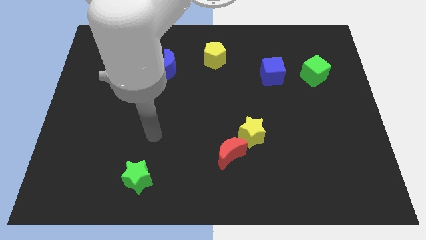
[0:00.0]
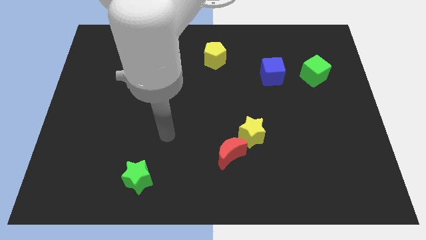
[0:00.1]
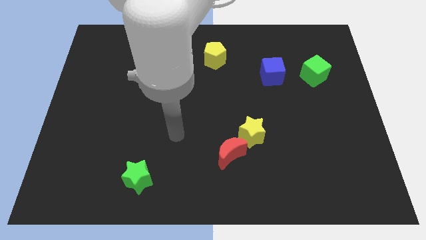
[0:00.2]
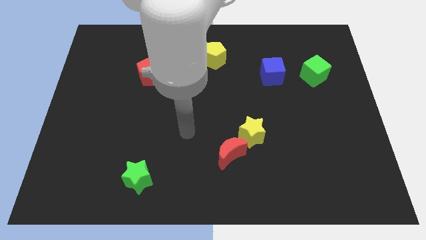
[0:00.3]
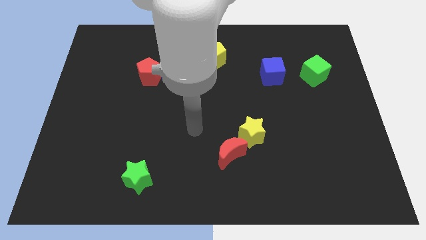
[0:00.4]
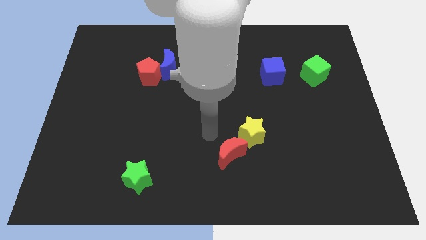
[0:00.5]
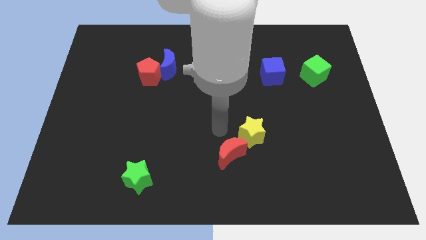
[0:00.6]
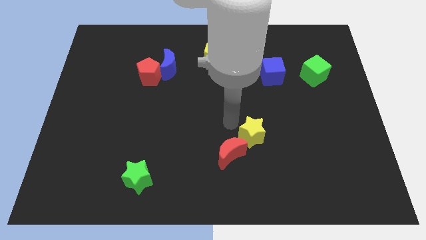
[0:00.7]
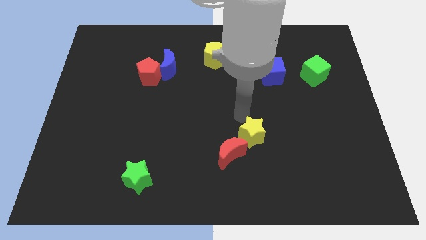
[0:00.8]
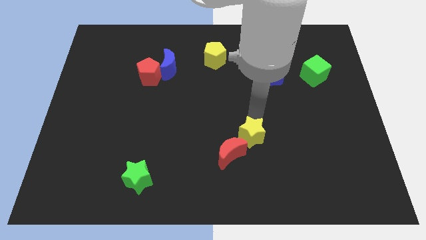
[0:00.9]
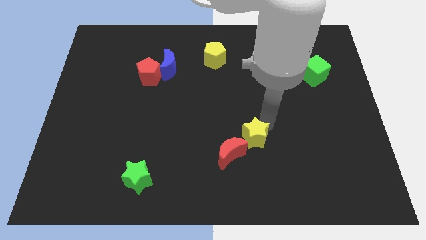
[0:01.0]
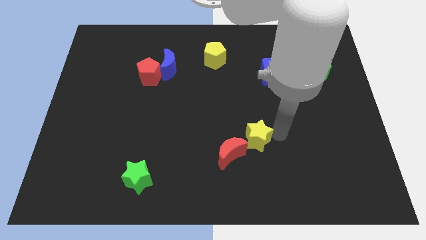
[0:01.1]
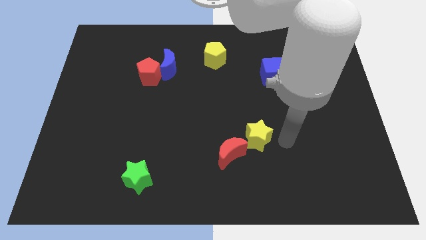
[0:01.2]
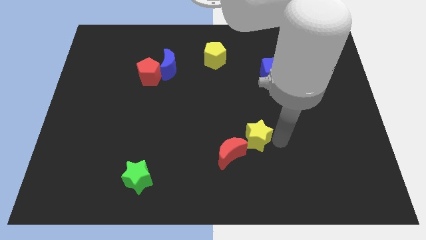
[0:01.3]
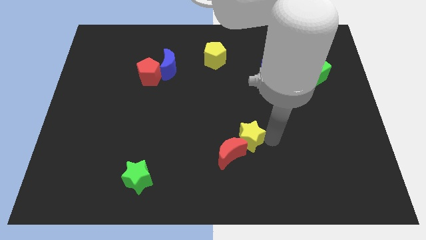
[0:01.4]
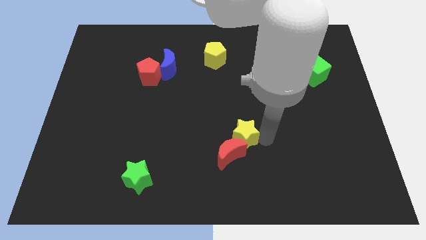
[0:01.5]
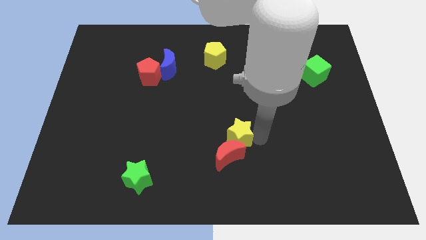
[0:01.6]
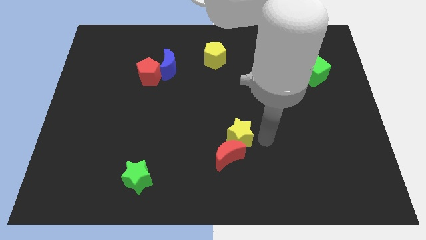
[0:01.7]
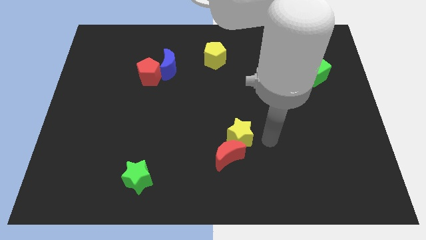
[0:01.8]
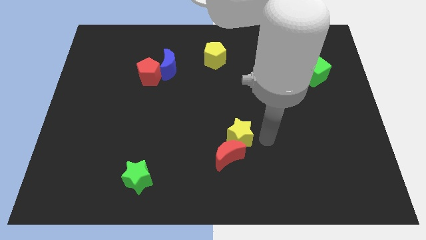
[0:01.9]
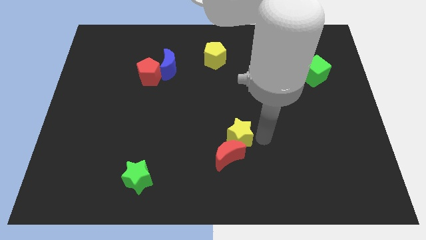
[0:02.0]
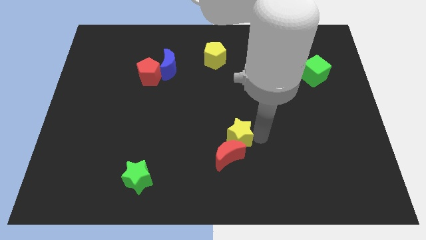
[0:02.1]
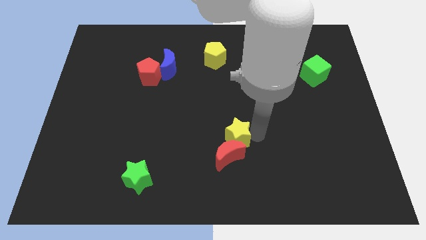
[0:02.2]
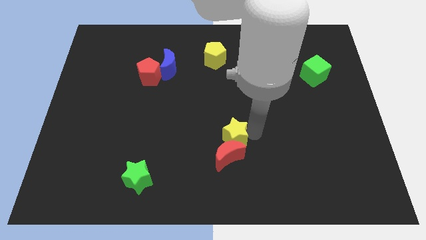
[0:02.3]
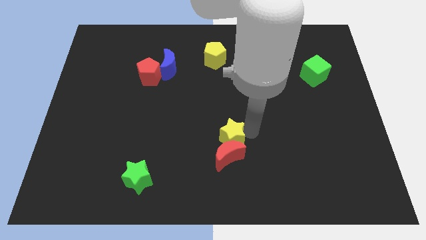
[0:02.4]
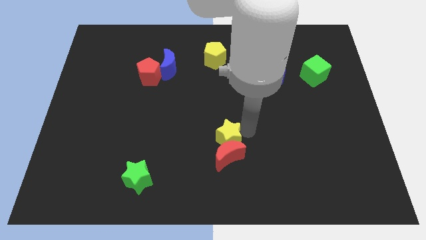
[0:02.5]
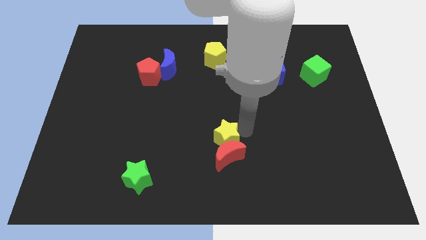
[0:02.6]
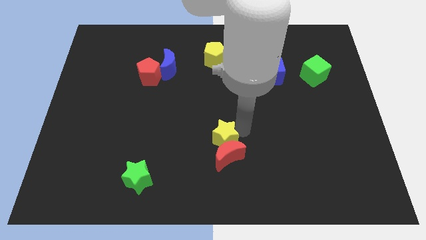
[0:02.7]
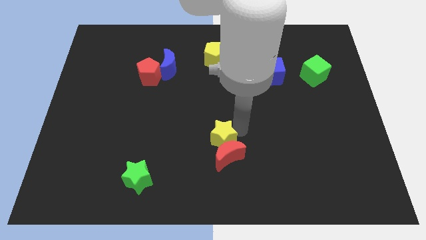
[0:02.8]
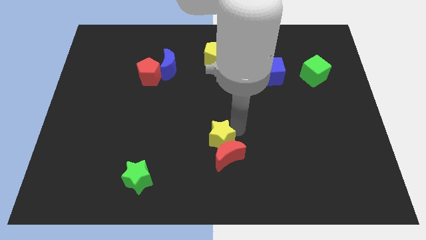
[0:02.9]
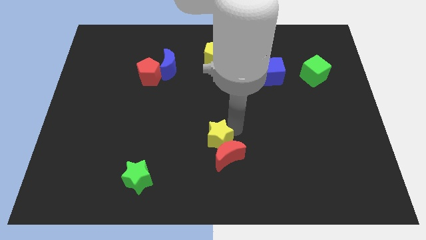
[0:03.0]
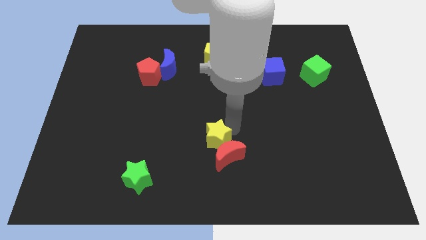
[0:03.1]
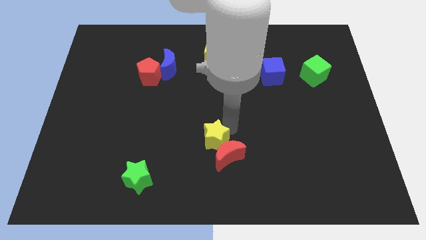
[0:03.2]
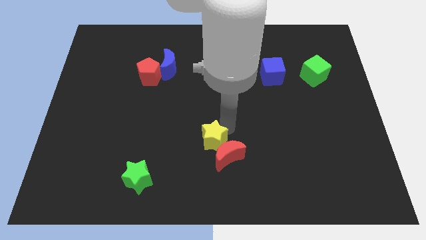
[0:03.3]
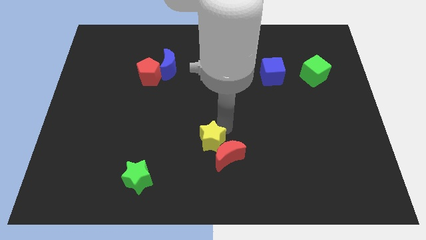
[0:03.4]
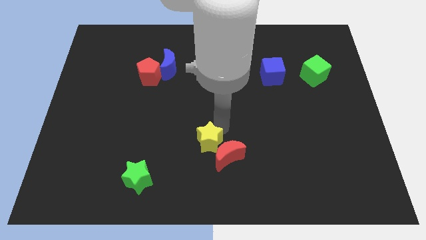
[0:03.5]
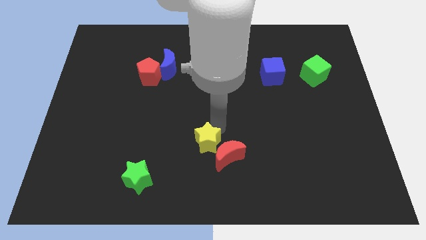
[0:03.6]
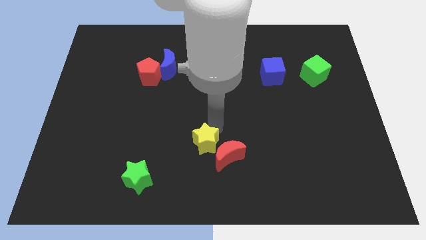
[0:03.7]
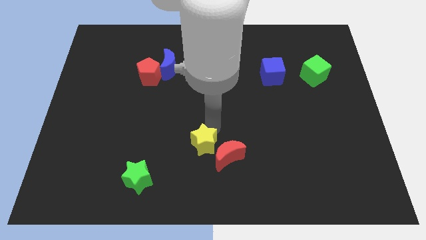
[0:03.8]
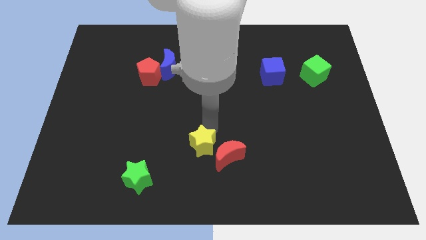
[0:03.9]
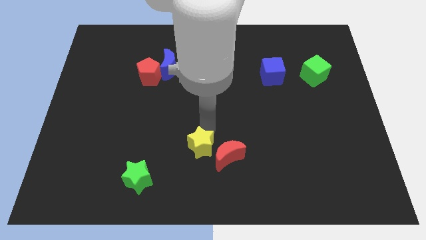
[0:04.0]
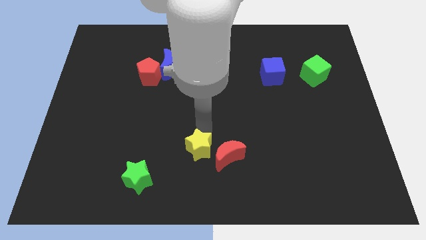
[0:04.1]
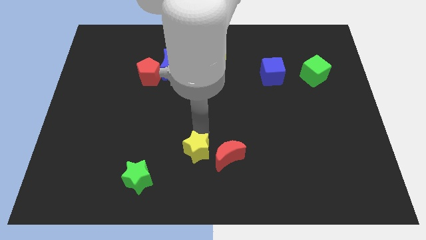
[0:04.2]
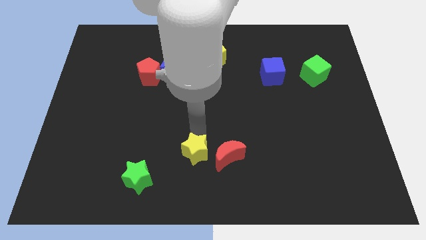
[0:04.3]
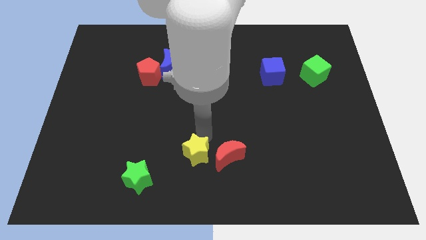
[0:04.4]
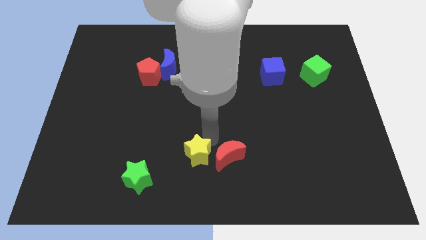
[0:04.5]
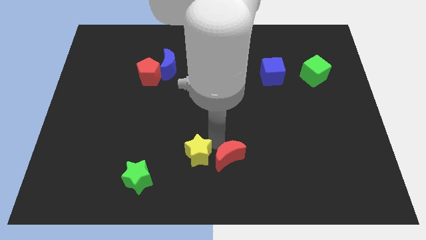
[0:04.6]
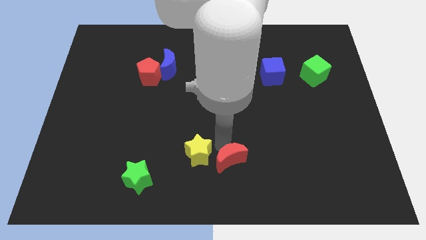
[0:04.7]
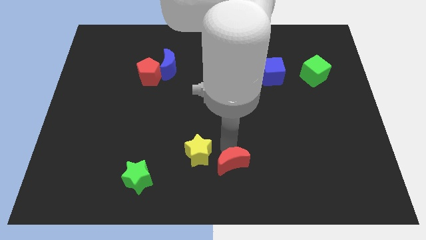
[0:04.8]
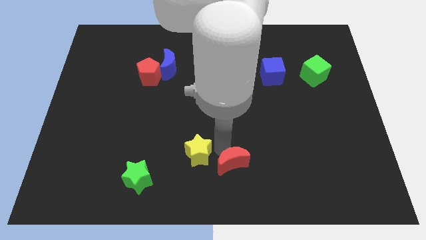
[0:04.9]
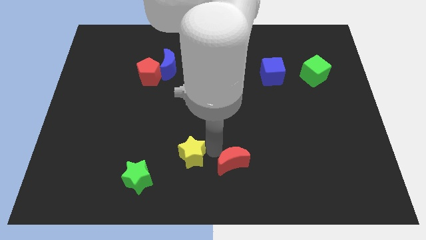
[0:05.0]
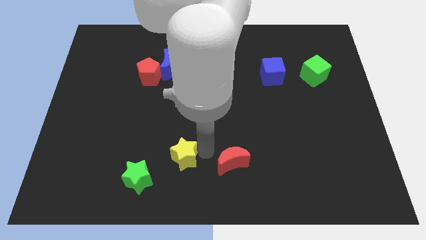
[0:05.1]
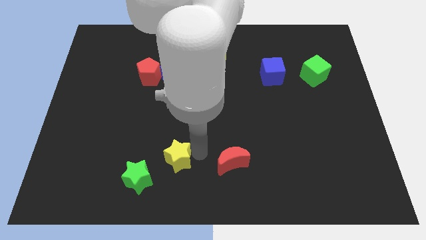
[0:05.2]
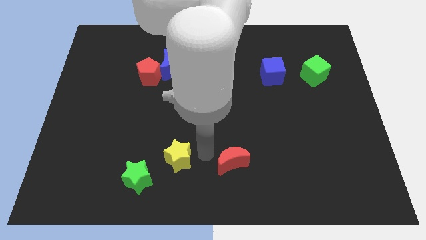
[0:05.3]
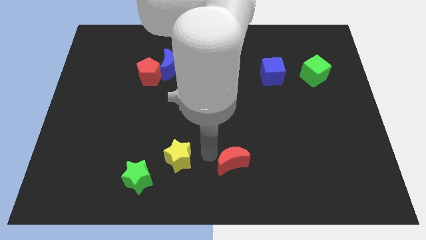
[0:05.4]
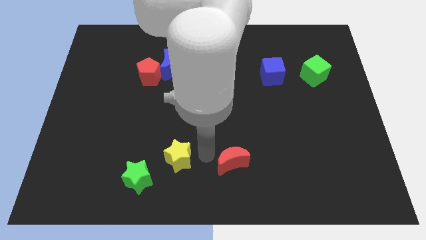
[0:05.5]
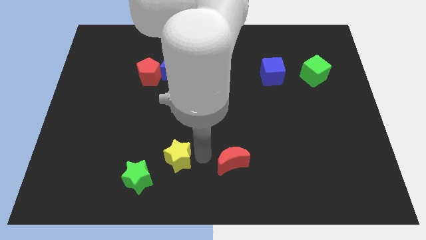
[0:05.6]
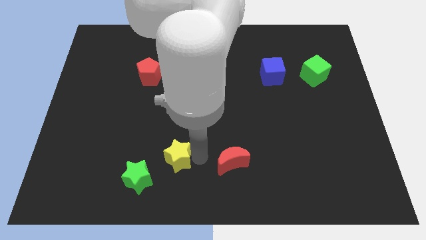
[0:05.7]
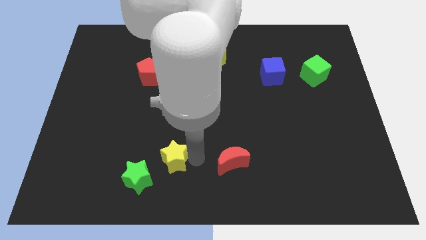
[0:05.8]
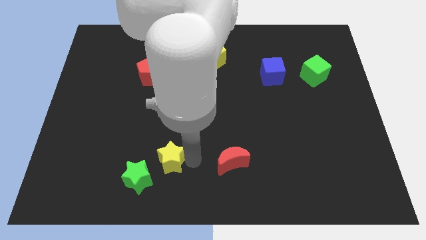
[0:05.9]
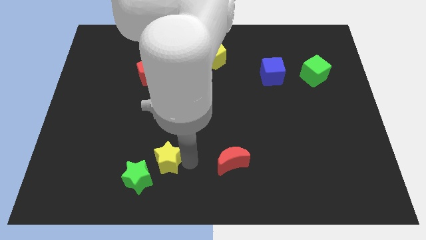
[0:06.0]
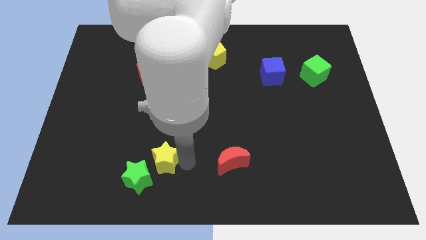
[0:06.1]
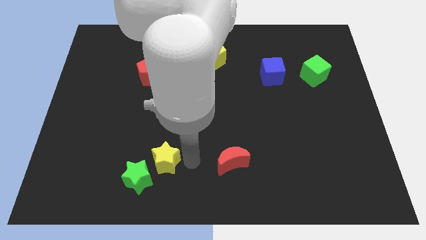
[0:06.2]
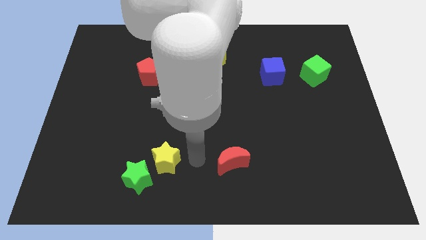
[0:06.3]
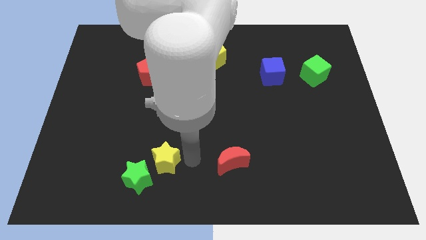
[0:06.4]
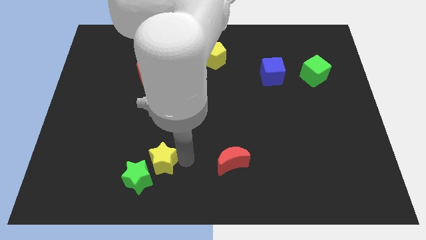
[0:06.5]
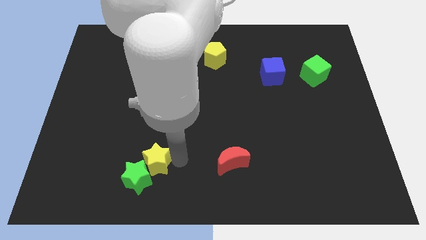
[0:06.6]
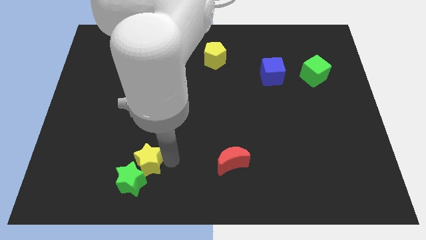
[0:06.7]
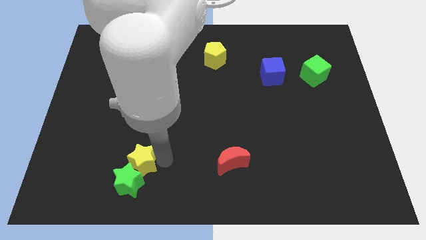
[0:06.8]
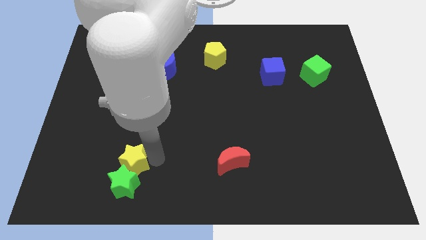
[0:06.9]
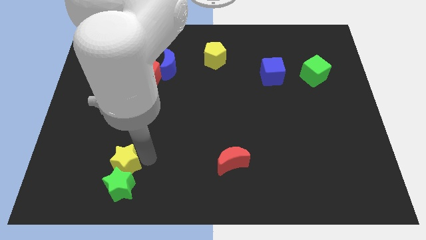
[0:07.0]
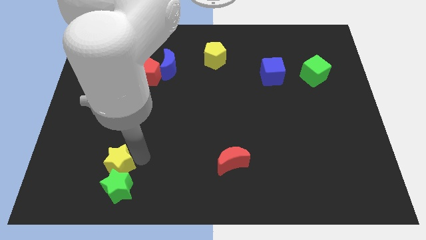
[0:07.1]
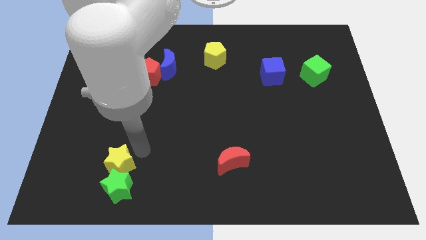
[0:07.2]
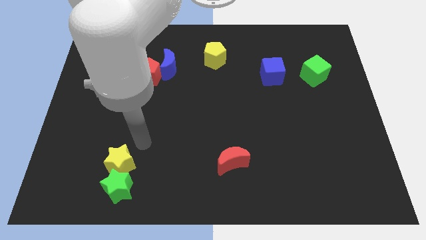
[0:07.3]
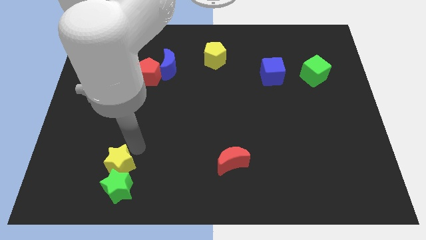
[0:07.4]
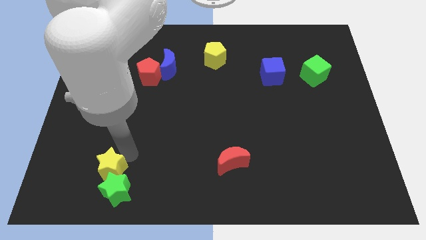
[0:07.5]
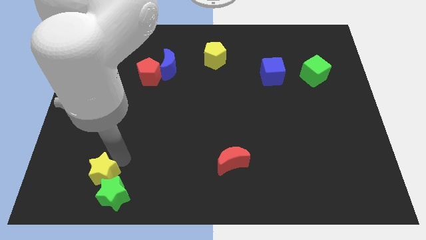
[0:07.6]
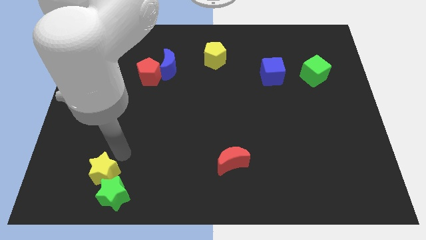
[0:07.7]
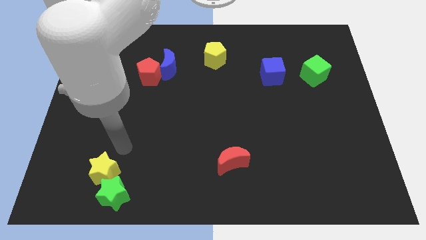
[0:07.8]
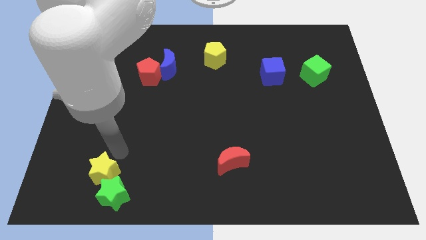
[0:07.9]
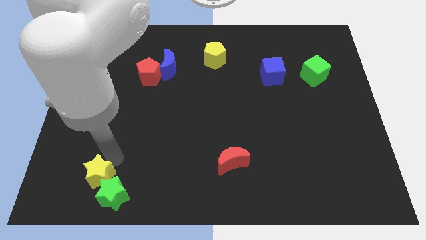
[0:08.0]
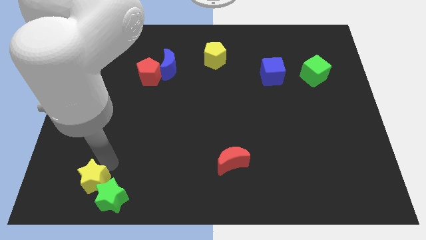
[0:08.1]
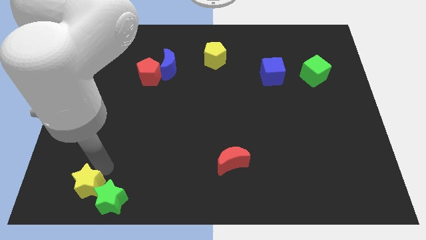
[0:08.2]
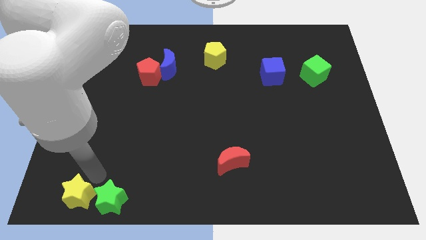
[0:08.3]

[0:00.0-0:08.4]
slide the yellow star to the bottom left corner
